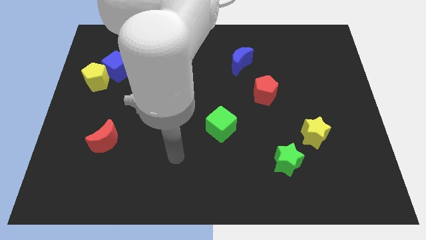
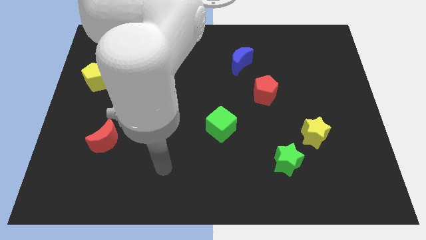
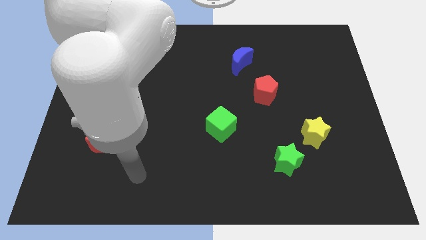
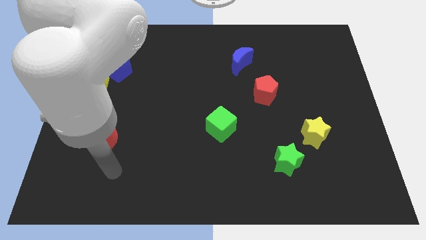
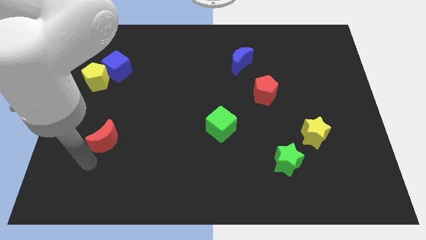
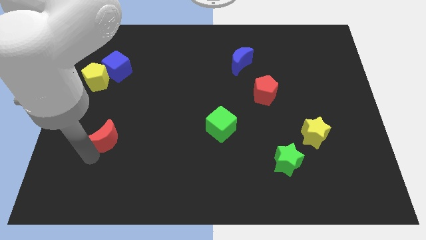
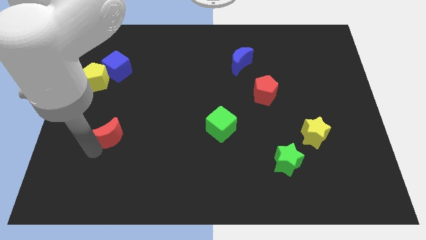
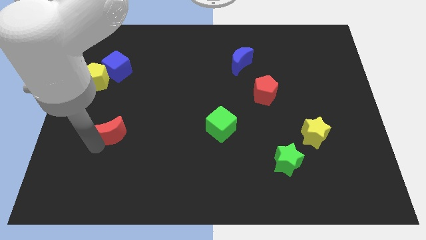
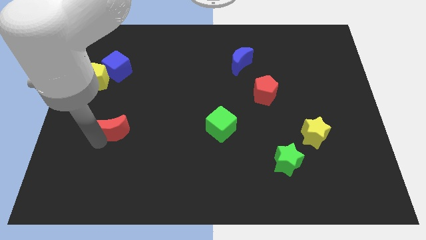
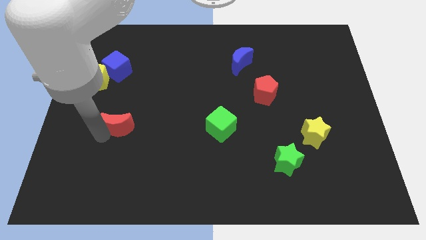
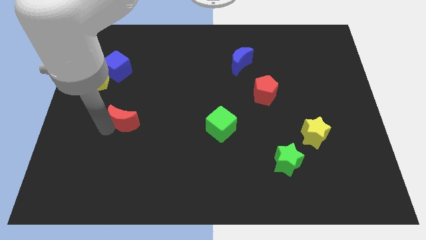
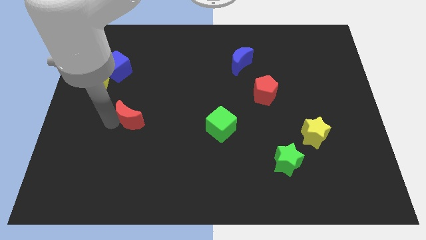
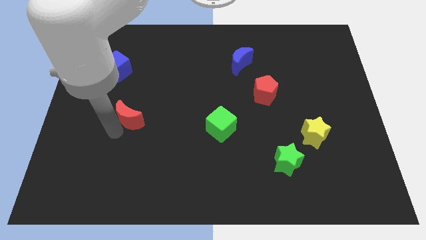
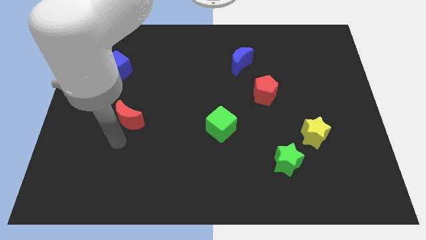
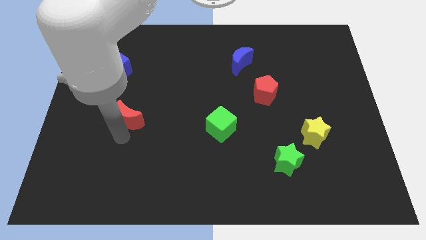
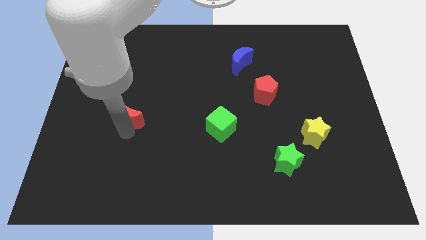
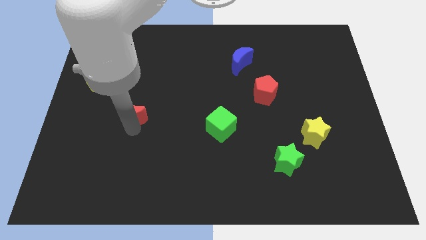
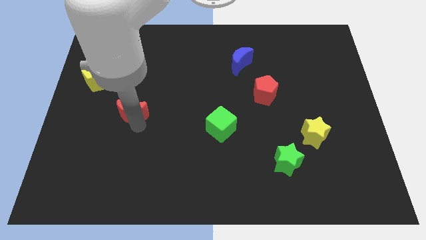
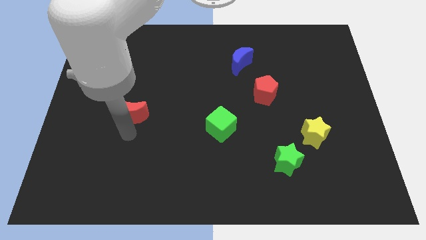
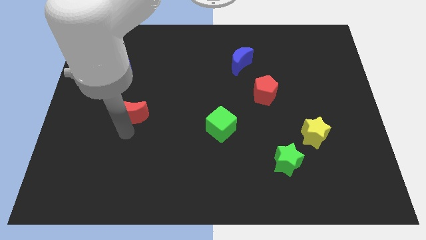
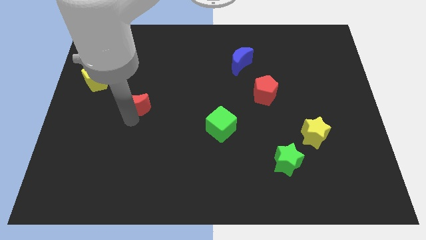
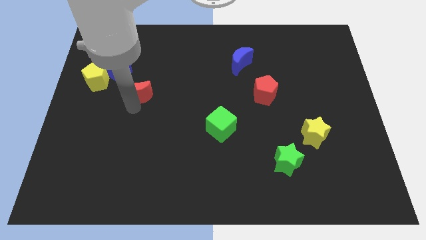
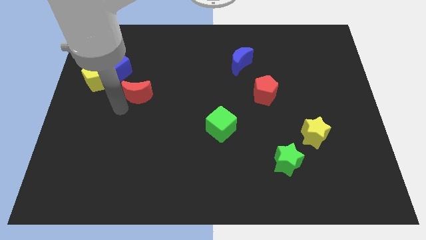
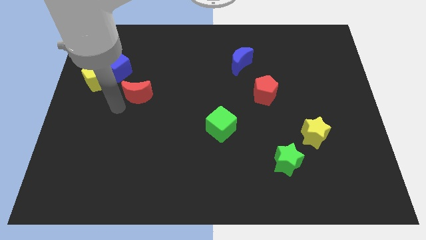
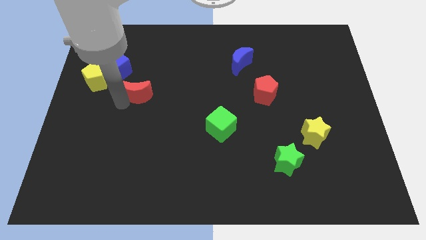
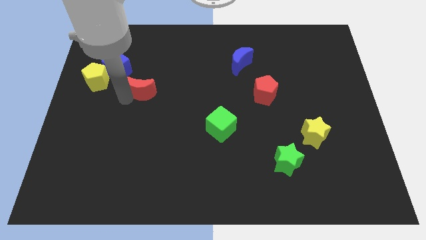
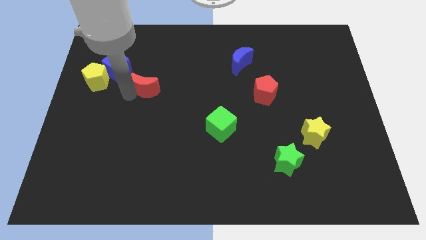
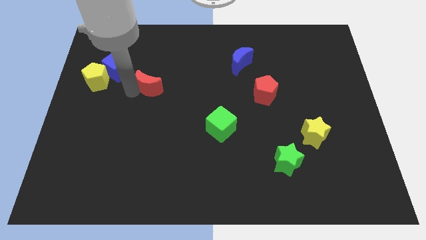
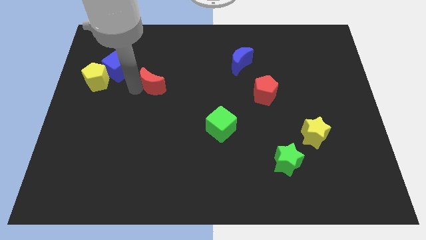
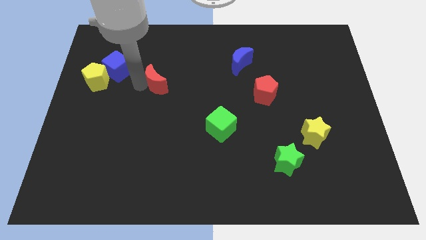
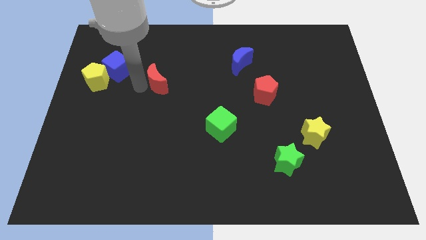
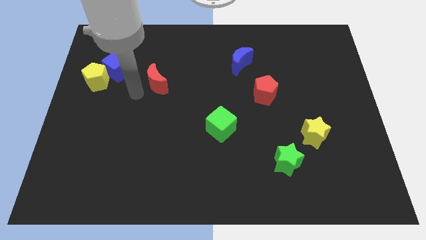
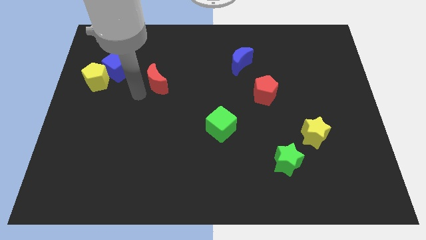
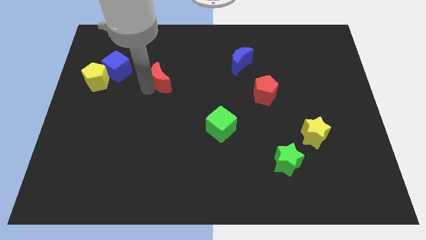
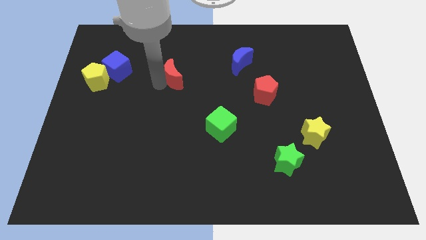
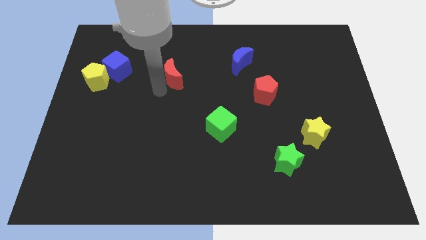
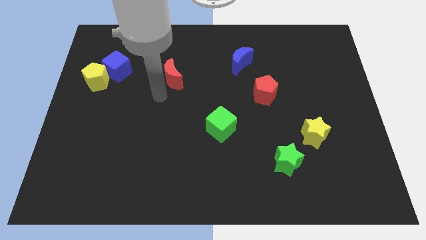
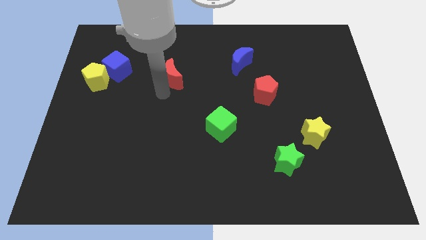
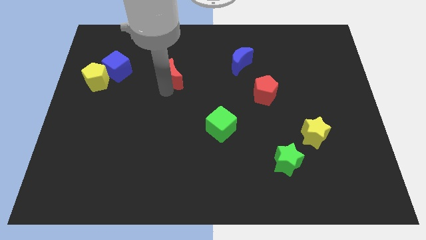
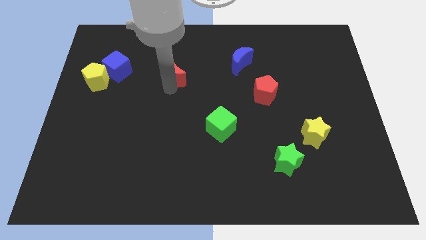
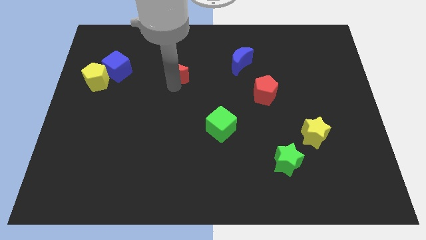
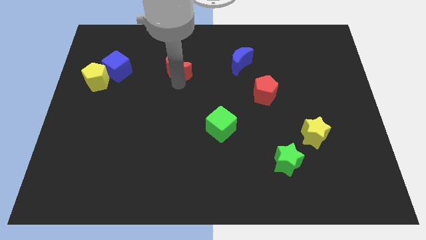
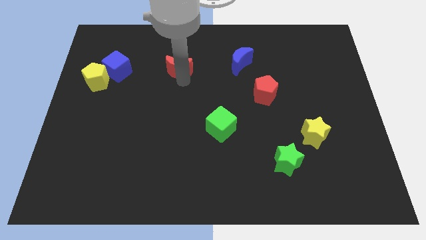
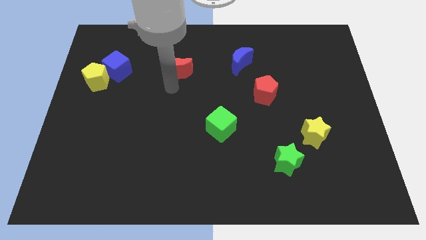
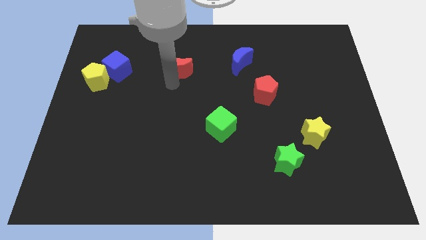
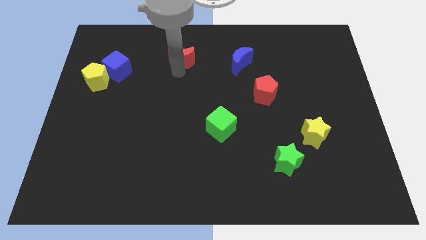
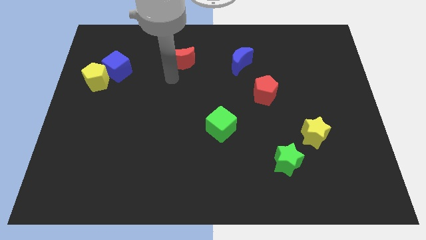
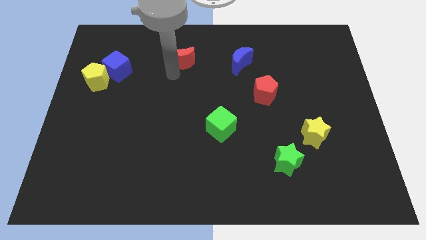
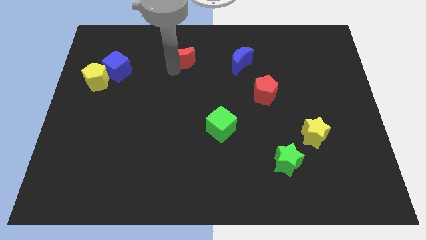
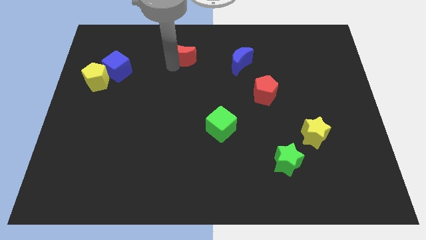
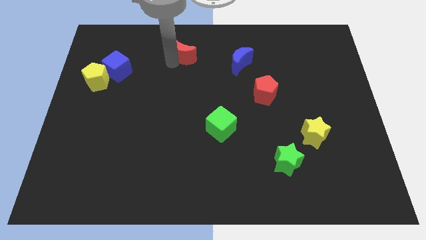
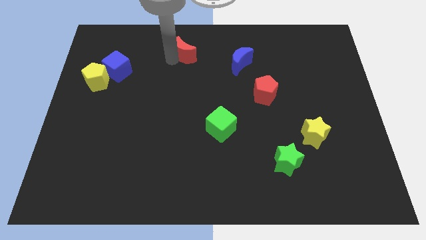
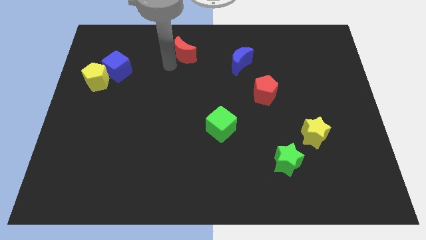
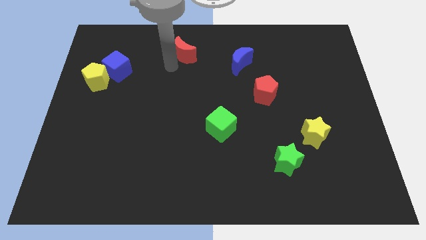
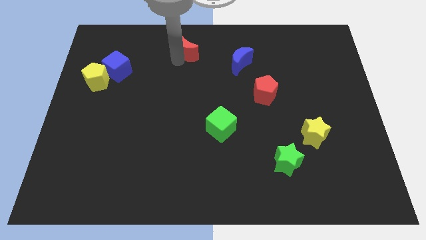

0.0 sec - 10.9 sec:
slide the red moon to the top side

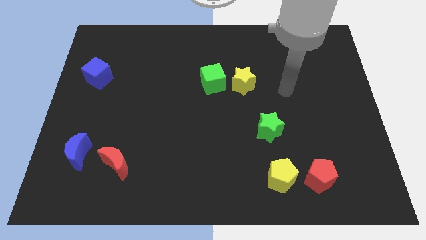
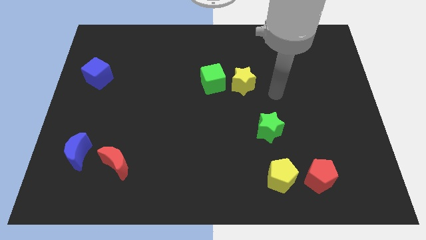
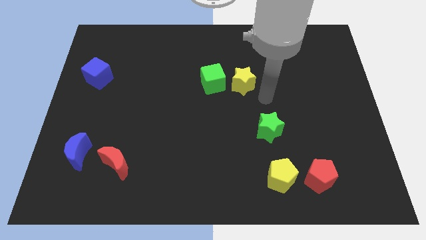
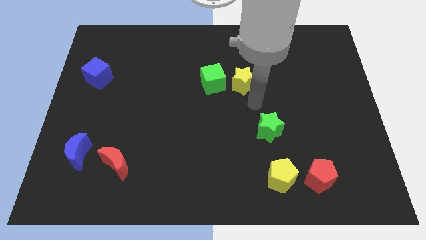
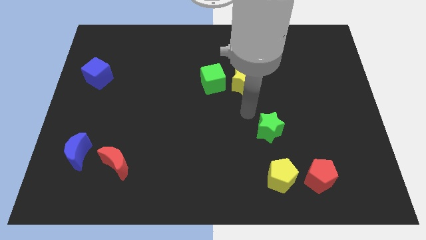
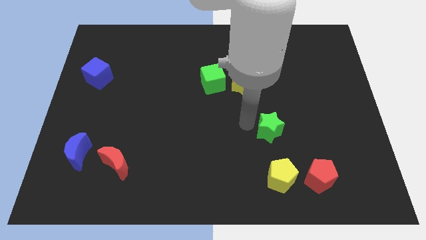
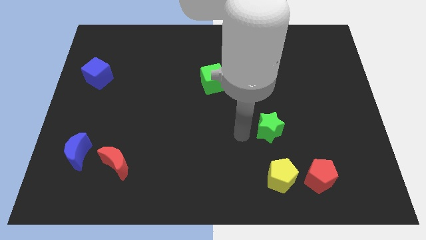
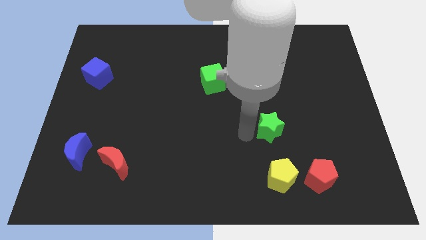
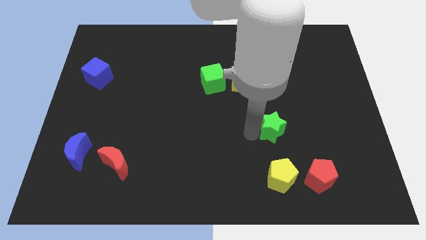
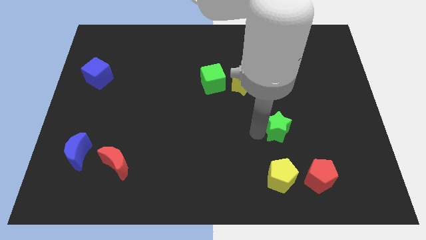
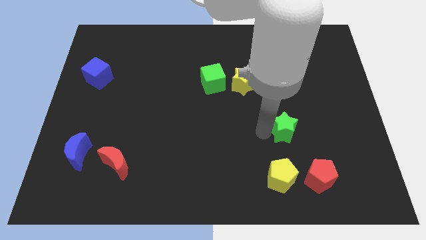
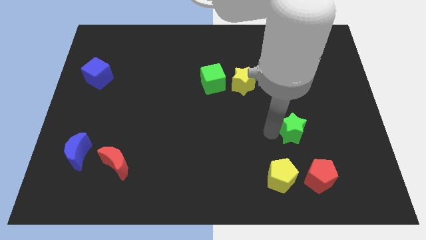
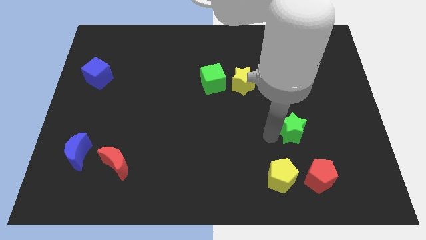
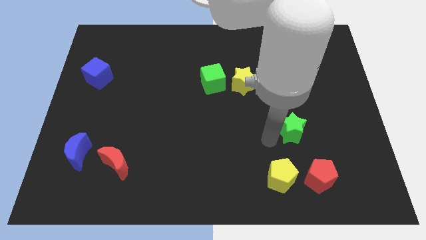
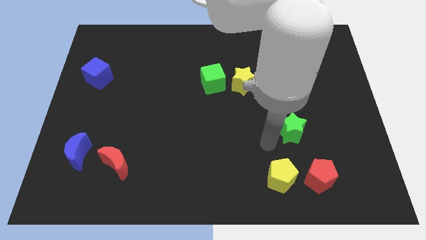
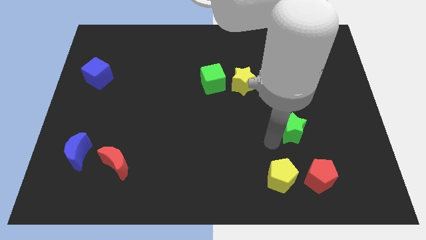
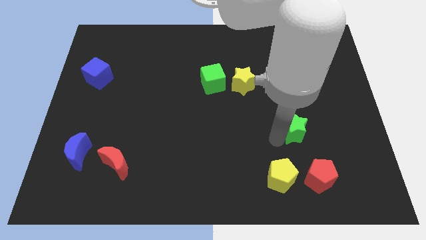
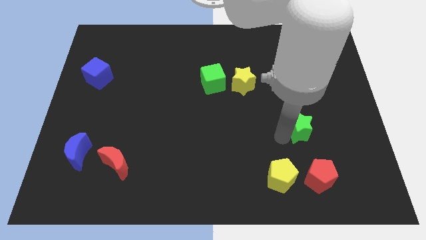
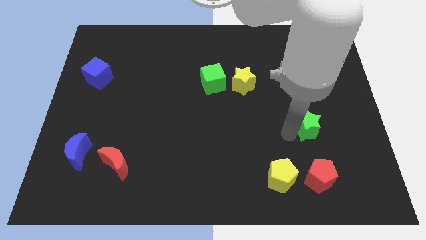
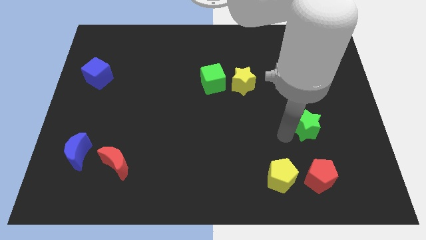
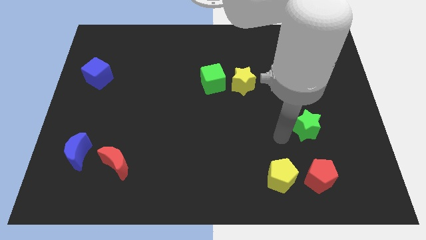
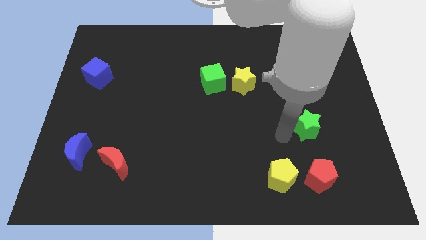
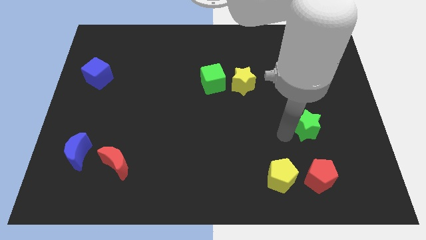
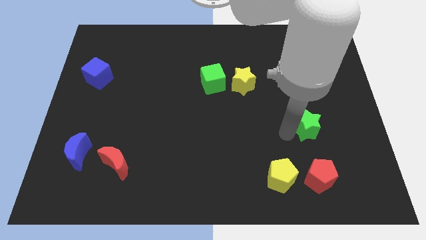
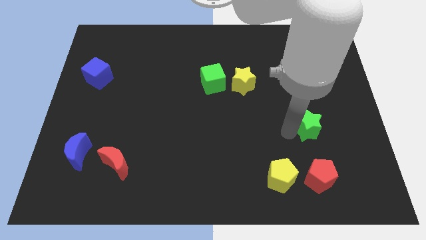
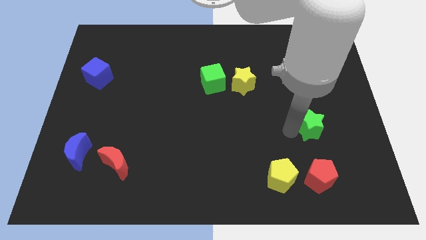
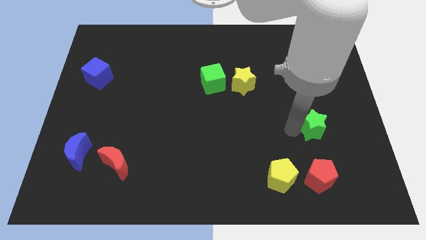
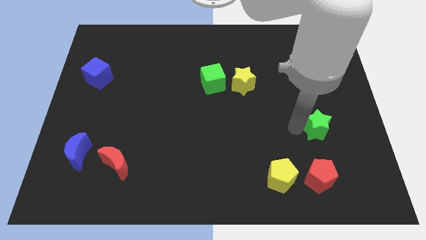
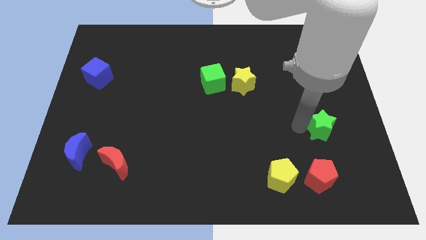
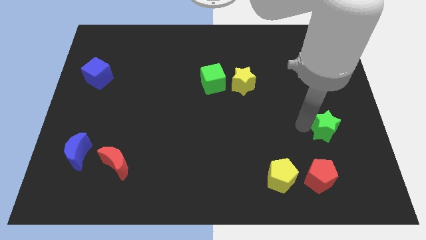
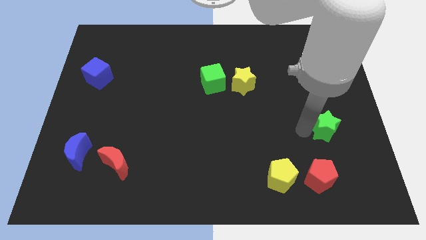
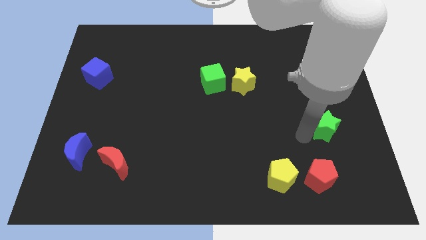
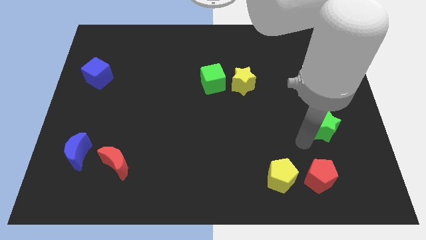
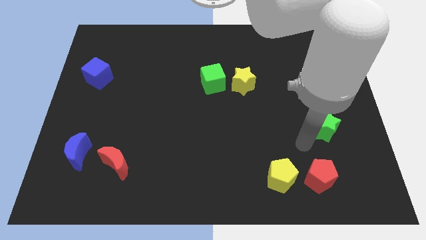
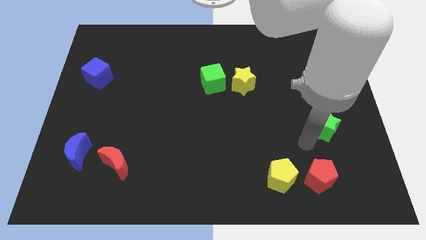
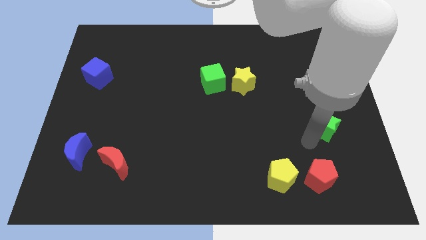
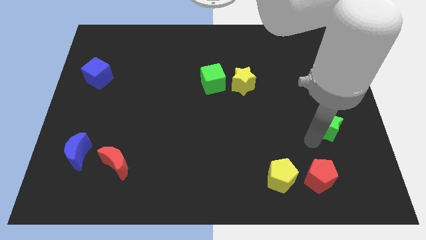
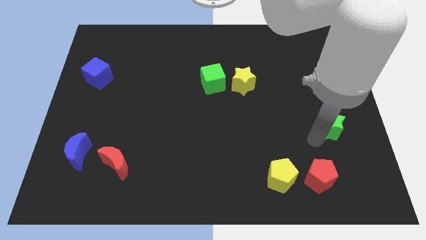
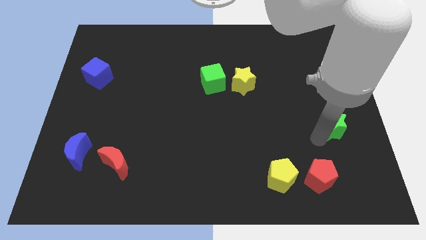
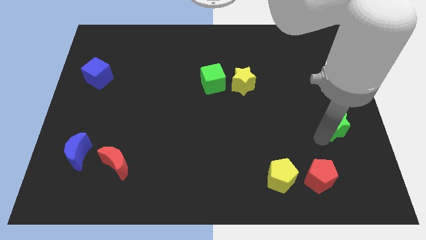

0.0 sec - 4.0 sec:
put the green star to the center right
